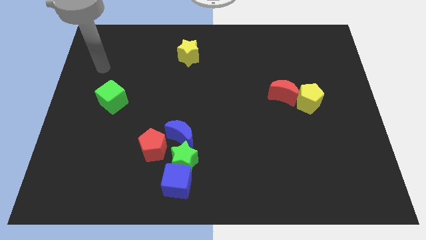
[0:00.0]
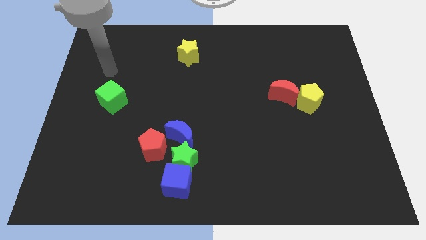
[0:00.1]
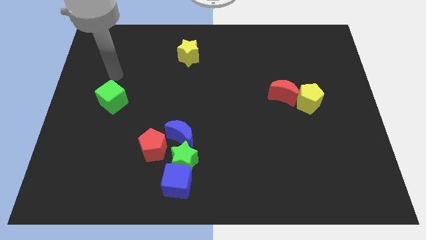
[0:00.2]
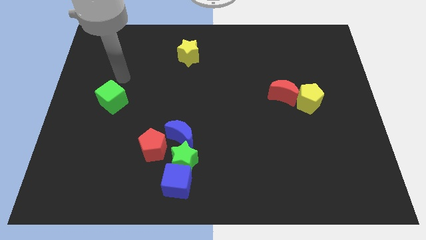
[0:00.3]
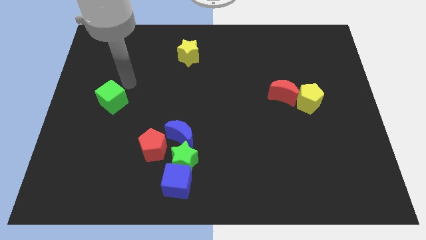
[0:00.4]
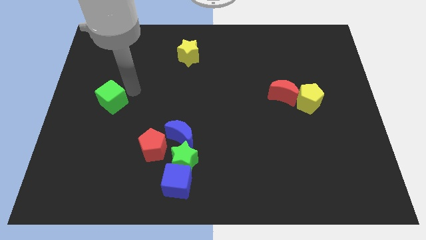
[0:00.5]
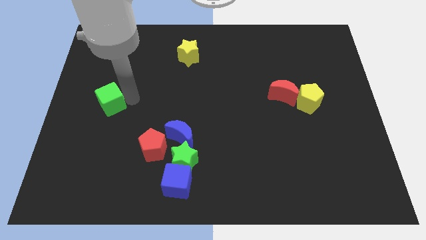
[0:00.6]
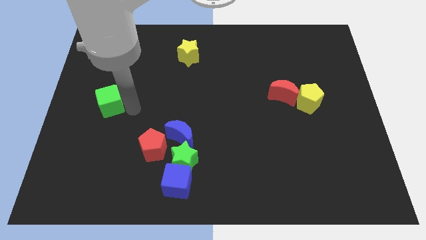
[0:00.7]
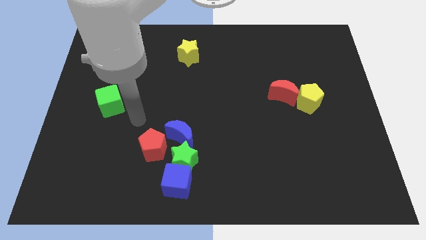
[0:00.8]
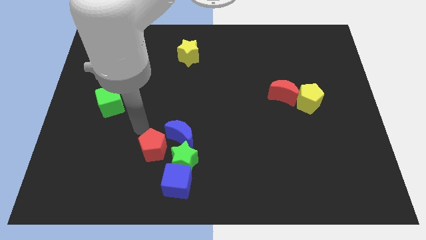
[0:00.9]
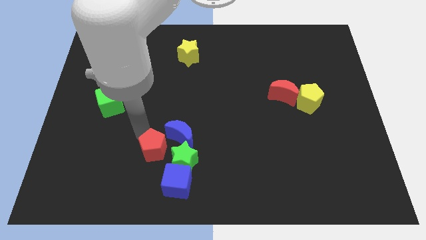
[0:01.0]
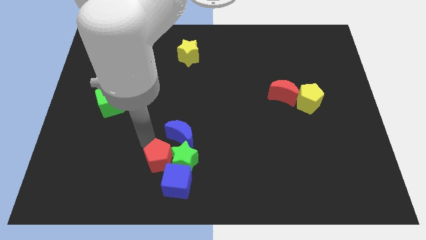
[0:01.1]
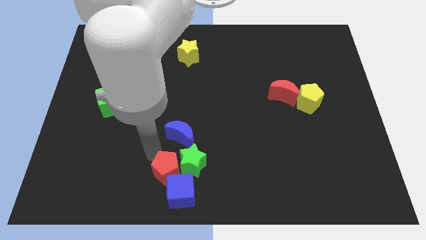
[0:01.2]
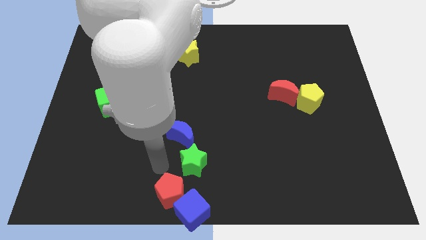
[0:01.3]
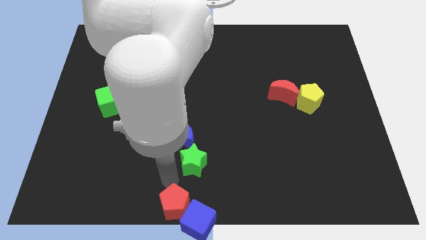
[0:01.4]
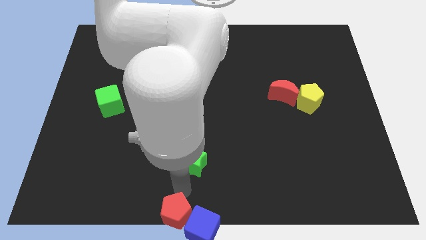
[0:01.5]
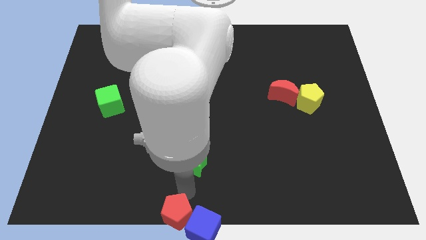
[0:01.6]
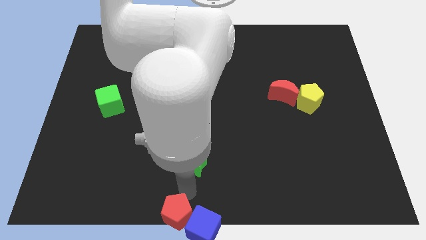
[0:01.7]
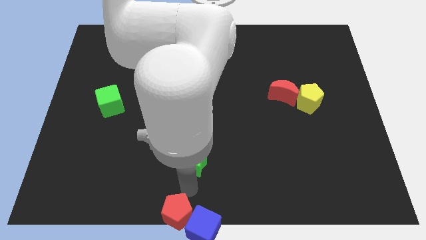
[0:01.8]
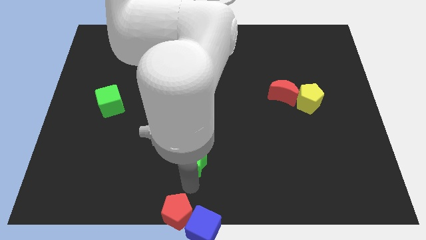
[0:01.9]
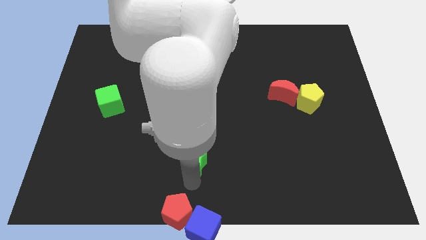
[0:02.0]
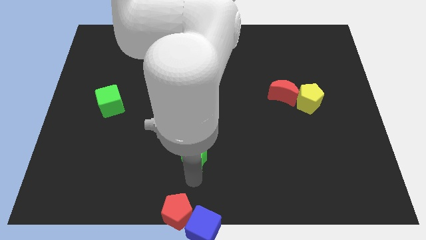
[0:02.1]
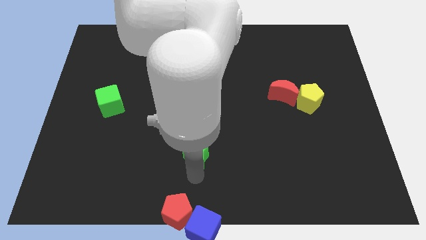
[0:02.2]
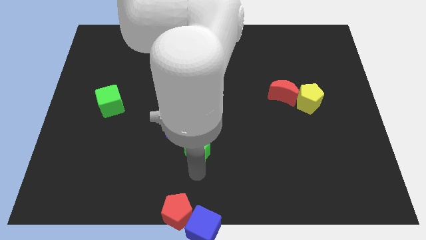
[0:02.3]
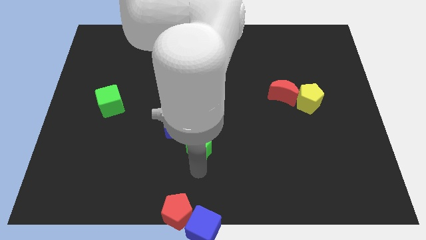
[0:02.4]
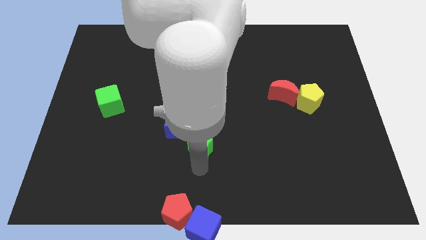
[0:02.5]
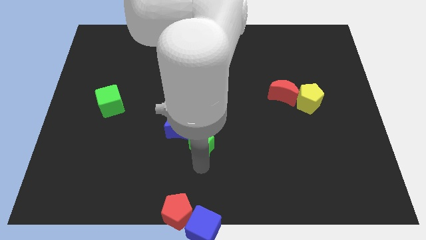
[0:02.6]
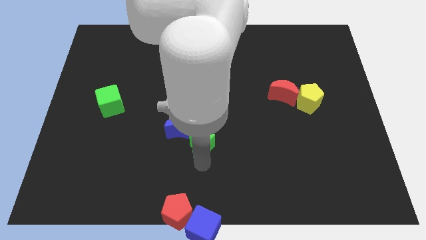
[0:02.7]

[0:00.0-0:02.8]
separate the green star from the blue cube, blue moon, and red pentagon

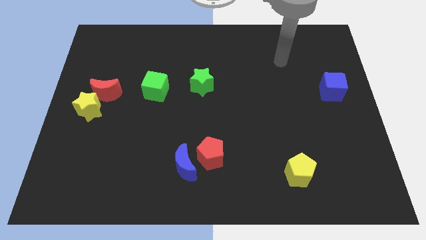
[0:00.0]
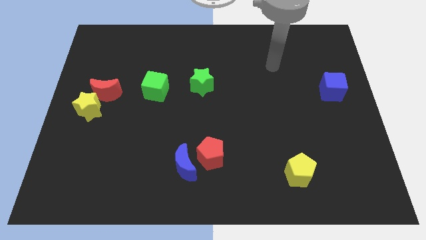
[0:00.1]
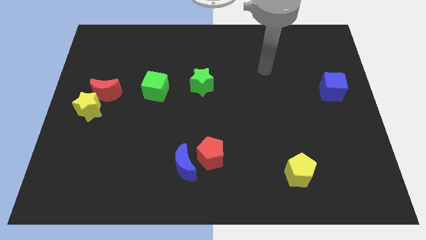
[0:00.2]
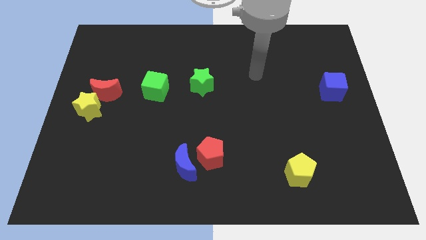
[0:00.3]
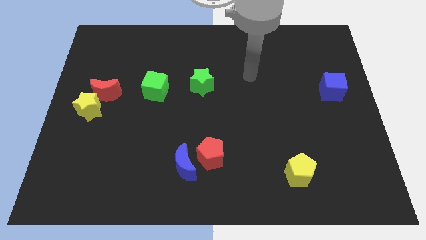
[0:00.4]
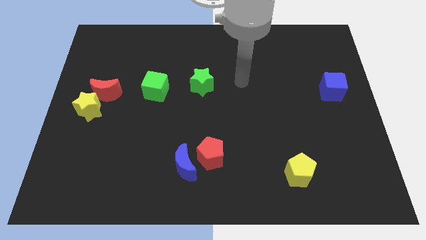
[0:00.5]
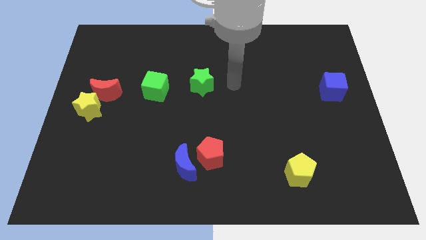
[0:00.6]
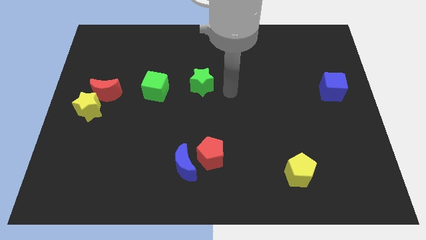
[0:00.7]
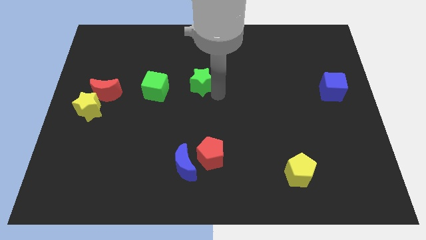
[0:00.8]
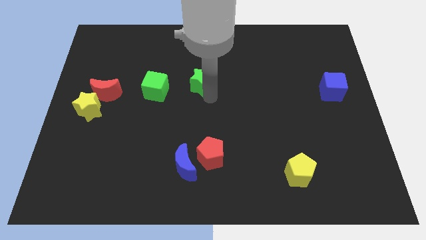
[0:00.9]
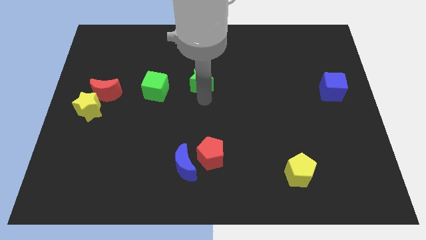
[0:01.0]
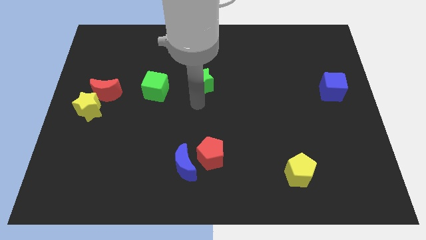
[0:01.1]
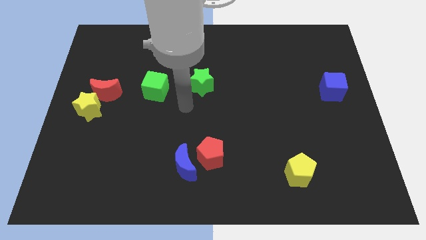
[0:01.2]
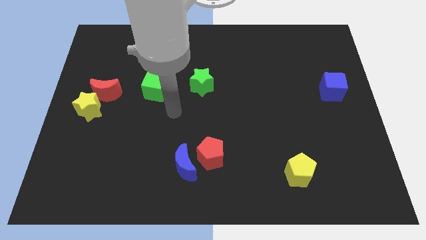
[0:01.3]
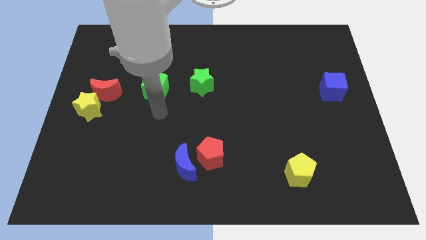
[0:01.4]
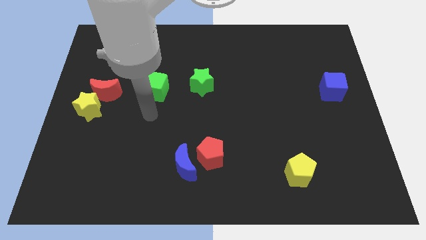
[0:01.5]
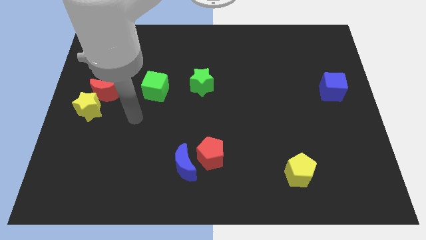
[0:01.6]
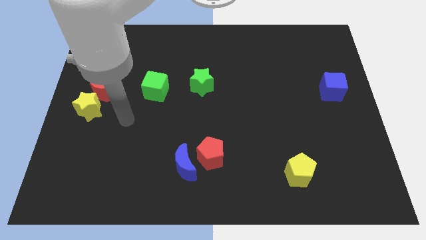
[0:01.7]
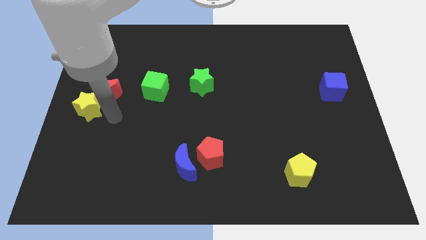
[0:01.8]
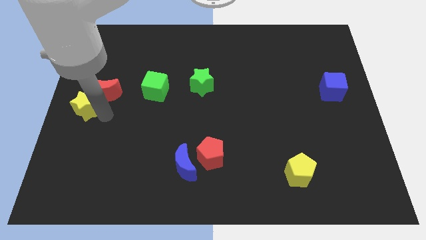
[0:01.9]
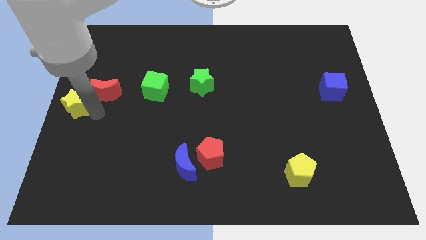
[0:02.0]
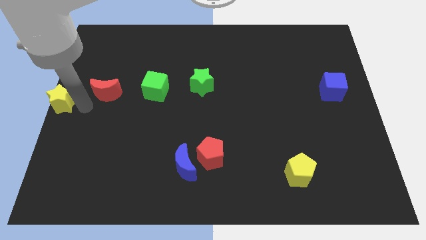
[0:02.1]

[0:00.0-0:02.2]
move the red moon away from the yellow star

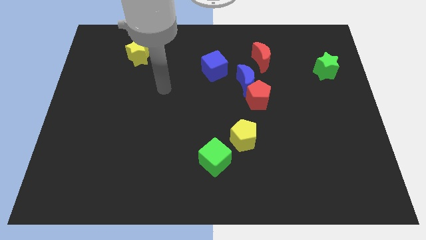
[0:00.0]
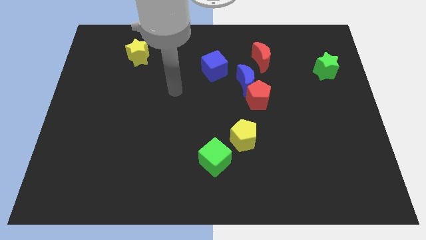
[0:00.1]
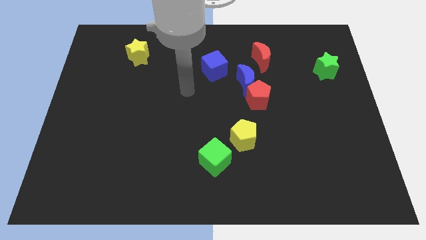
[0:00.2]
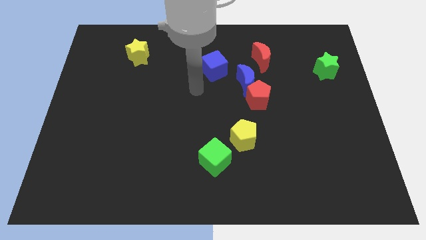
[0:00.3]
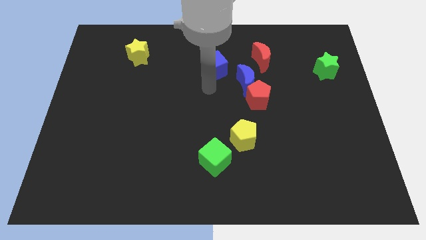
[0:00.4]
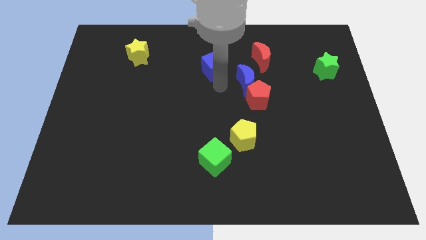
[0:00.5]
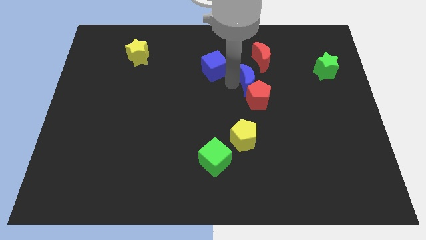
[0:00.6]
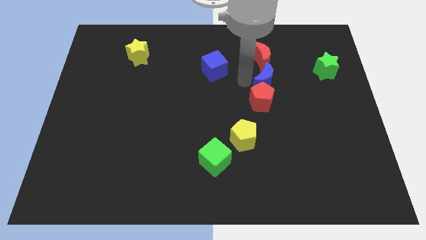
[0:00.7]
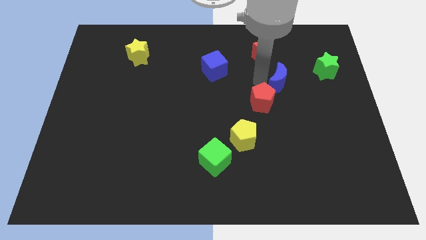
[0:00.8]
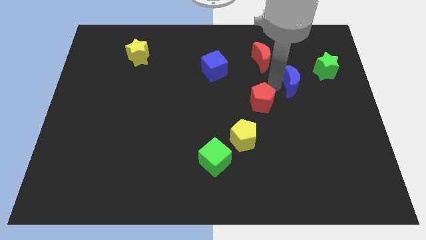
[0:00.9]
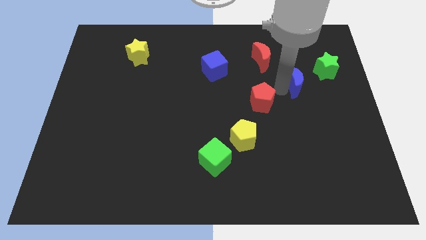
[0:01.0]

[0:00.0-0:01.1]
pull the red pentagon apart from the blue moon

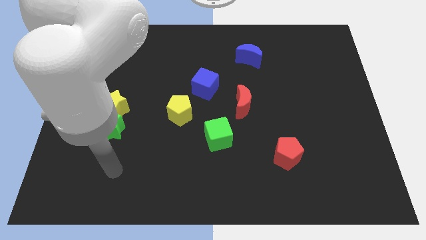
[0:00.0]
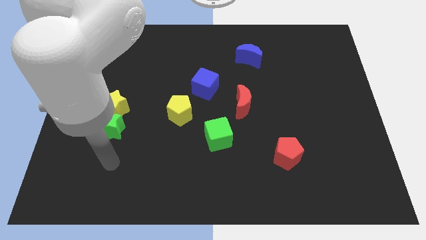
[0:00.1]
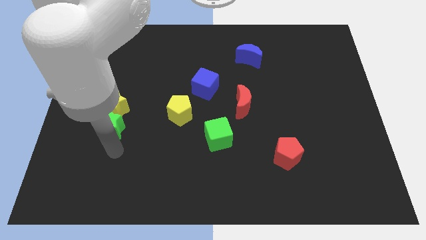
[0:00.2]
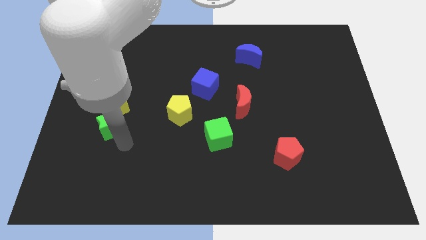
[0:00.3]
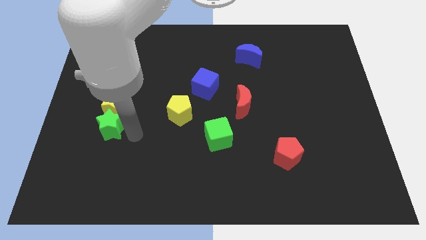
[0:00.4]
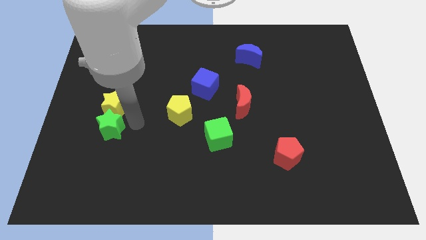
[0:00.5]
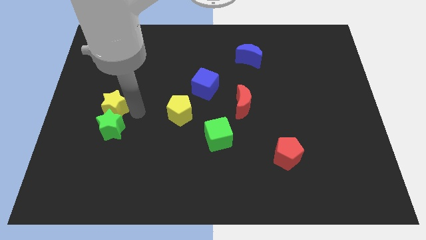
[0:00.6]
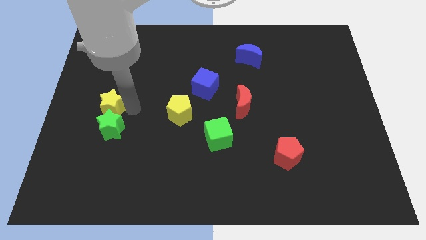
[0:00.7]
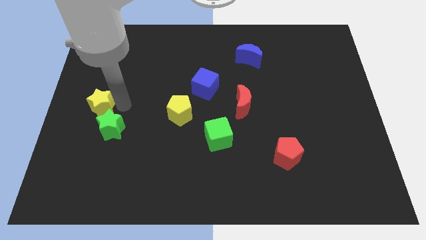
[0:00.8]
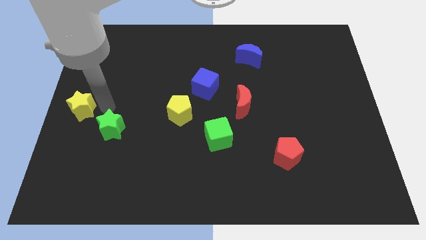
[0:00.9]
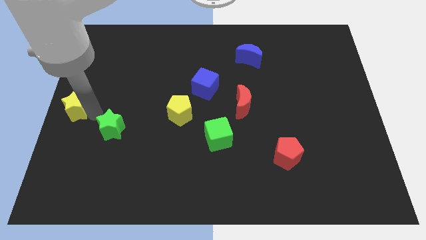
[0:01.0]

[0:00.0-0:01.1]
separate the green star from the yellow star

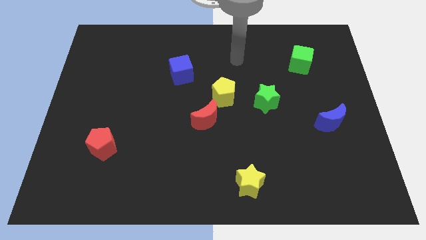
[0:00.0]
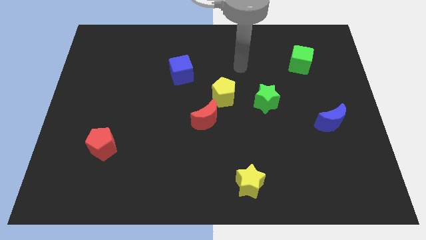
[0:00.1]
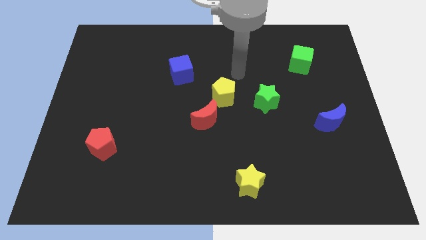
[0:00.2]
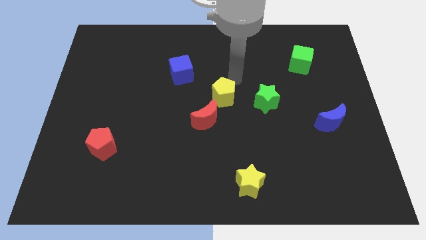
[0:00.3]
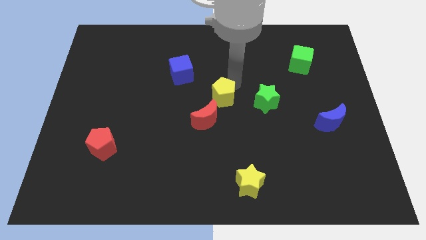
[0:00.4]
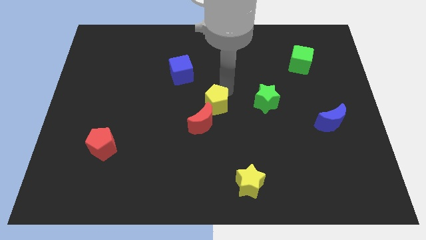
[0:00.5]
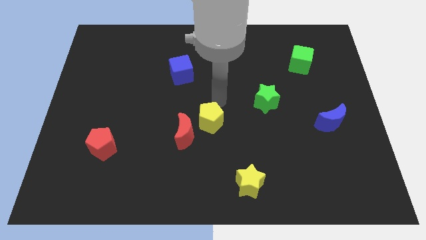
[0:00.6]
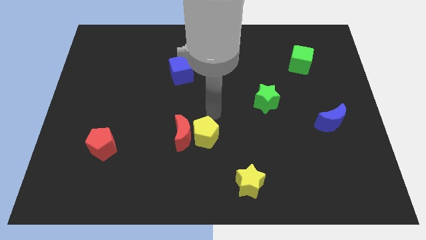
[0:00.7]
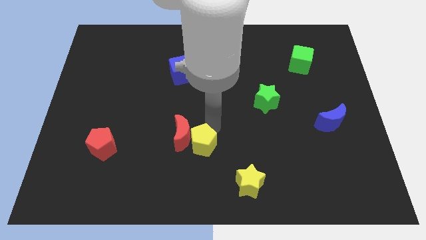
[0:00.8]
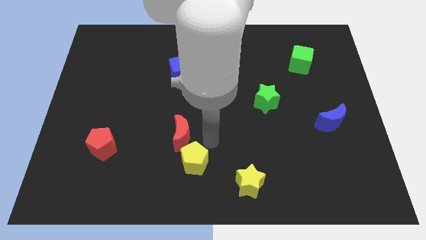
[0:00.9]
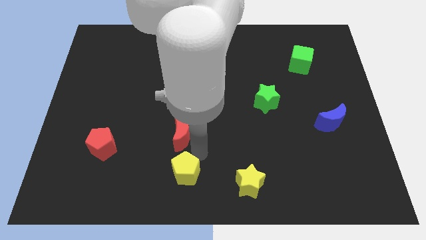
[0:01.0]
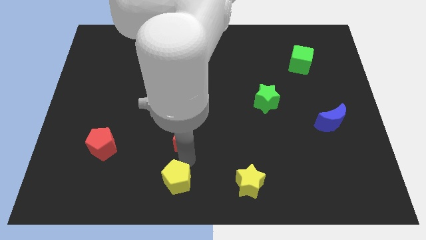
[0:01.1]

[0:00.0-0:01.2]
pull the red moon apart from the yellow pentagon

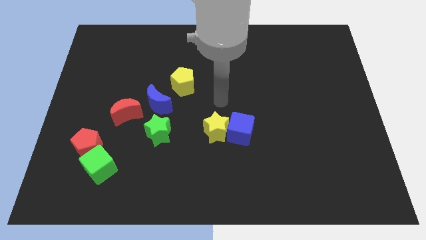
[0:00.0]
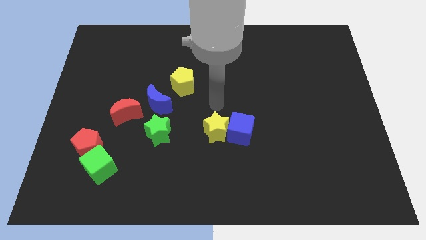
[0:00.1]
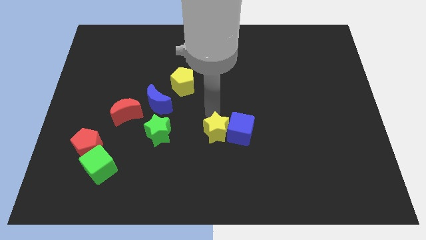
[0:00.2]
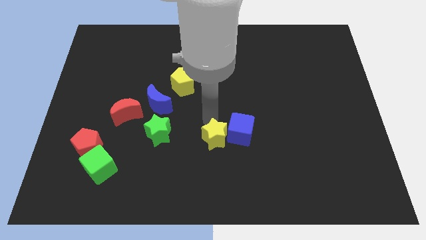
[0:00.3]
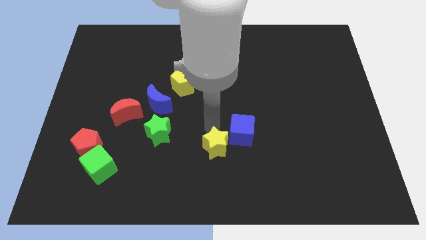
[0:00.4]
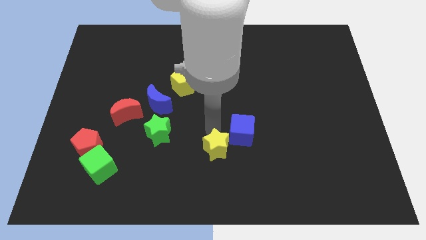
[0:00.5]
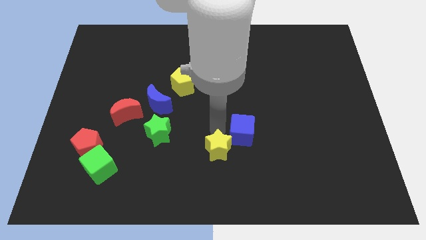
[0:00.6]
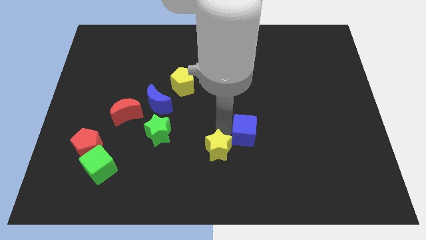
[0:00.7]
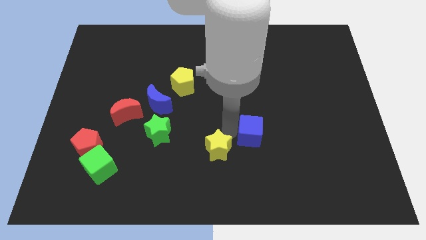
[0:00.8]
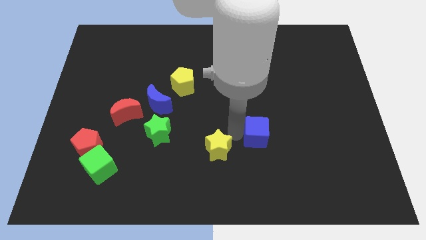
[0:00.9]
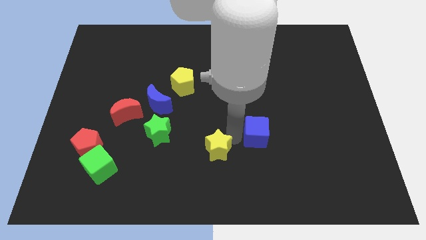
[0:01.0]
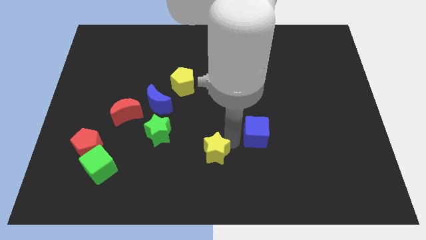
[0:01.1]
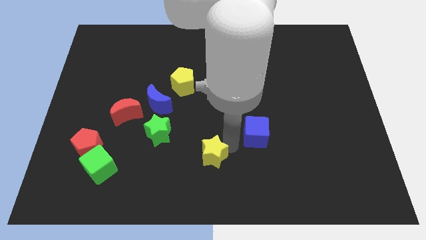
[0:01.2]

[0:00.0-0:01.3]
separate the blue cube from the yellow star
